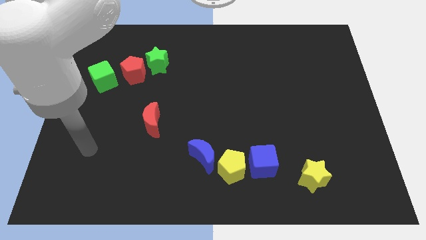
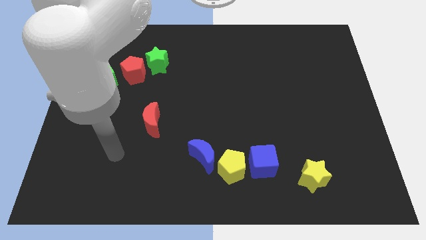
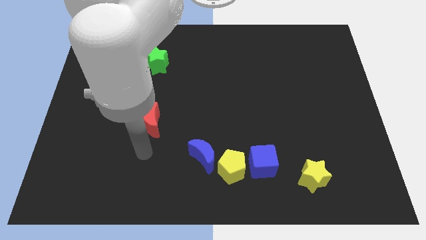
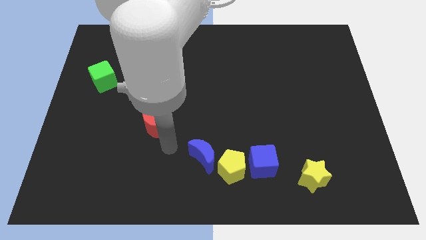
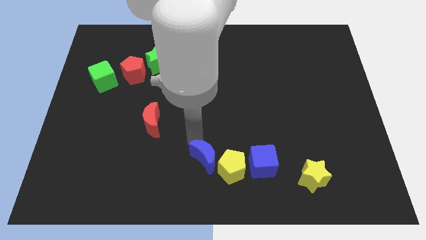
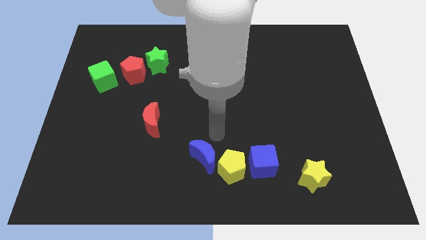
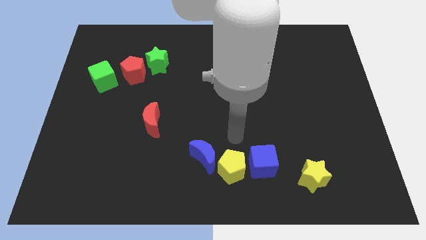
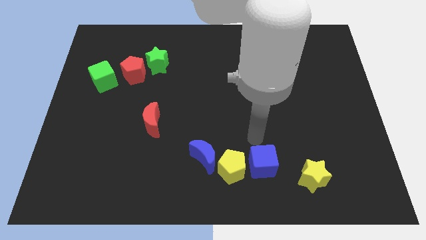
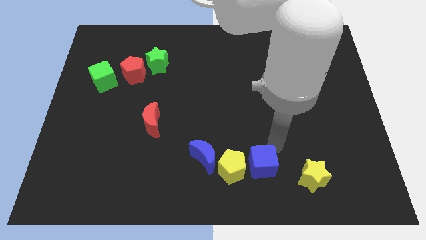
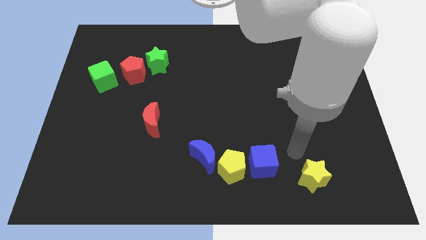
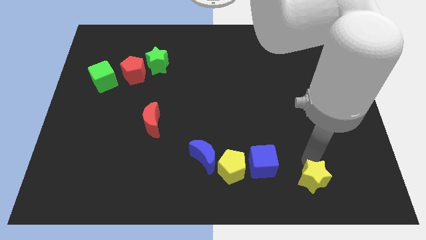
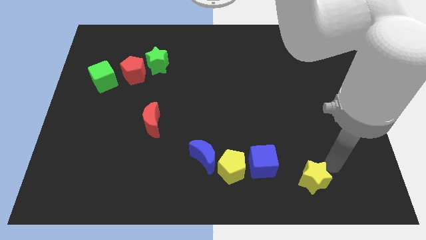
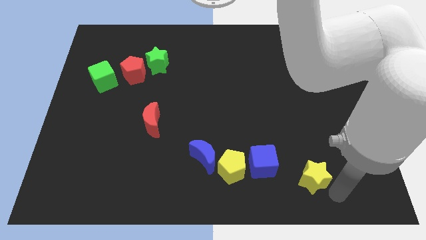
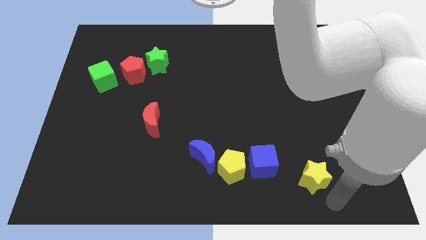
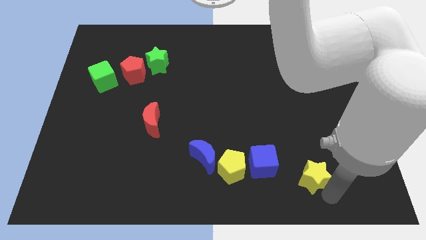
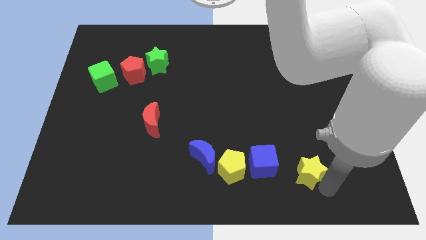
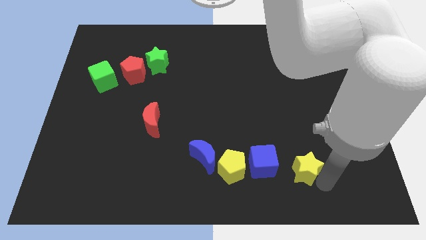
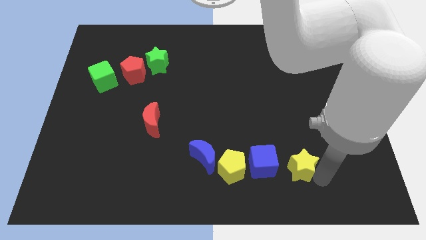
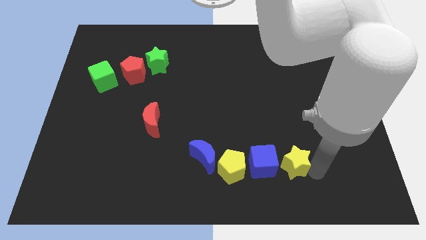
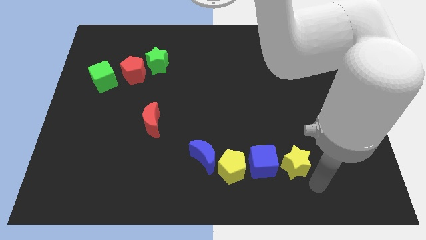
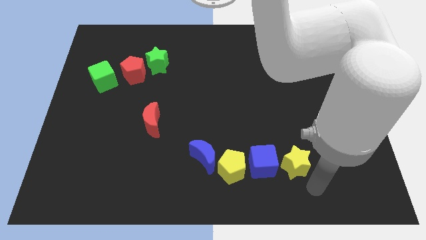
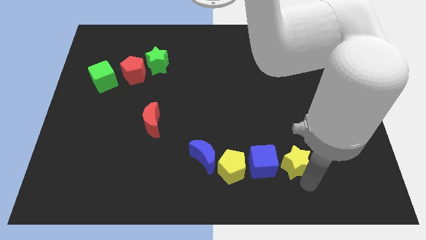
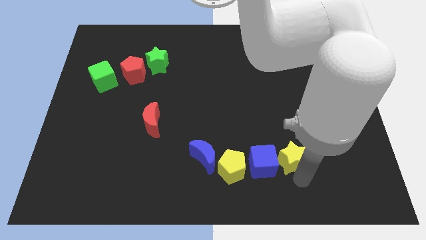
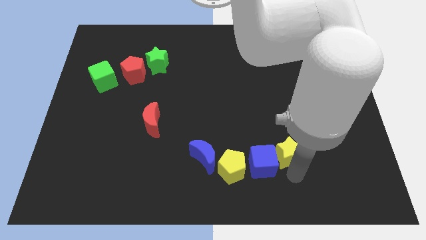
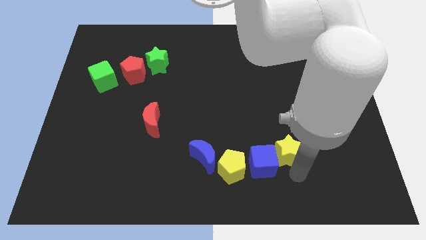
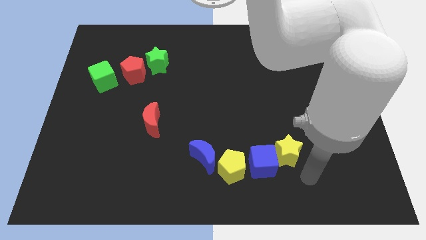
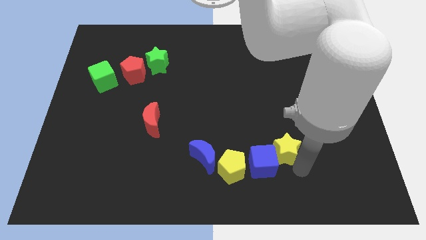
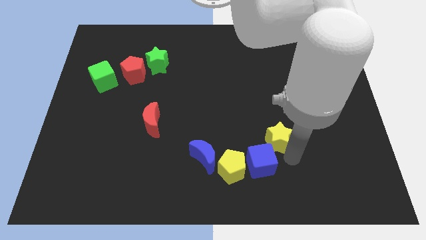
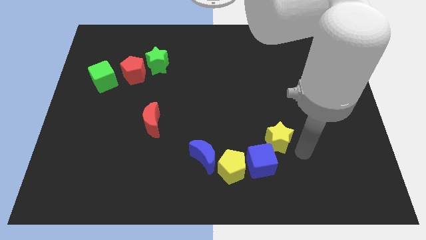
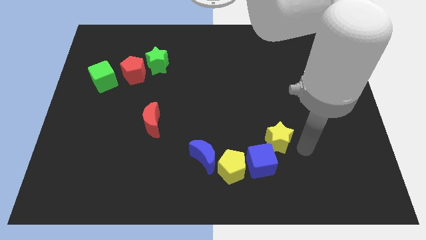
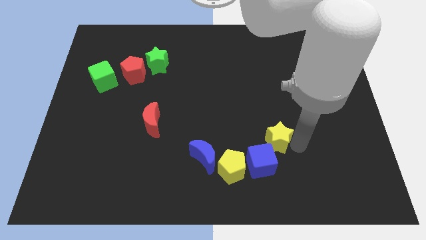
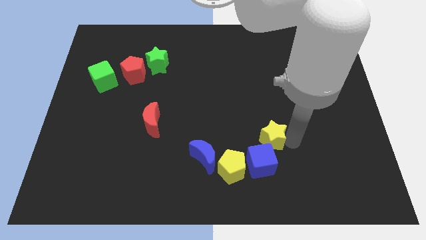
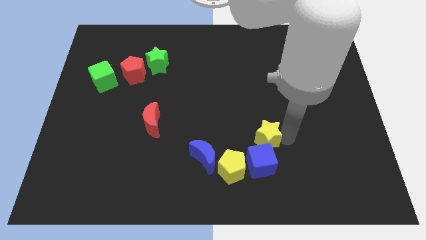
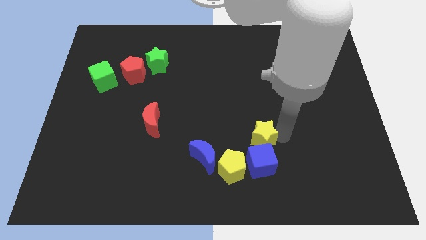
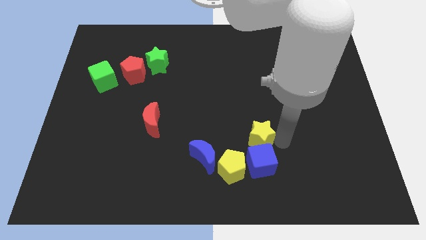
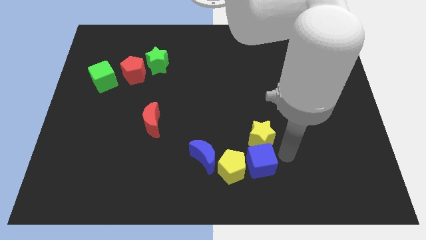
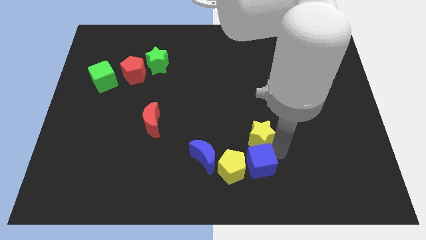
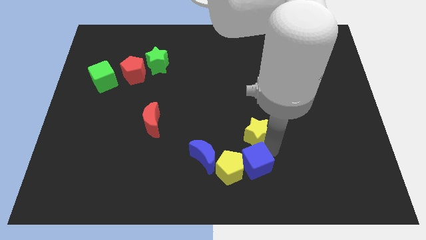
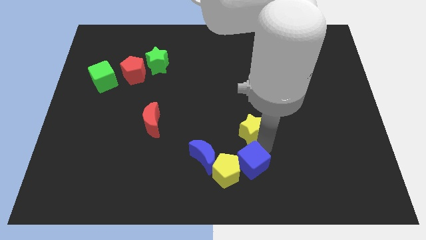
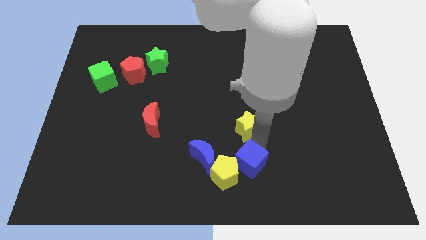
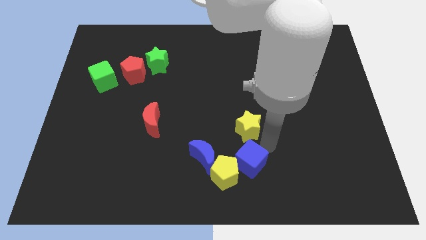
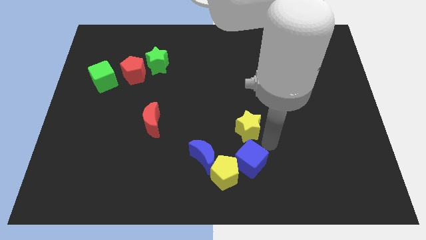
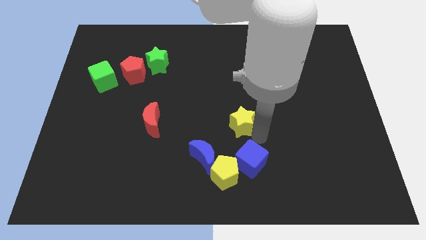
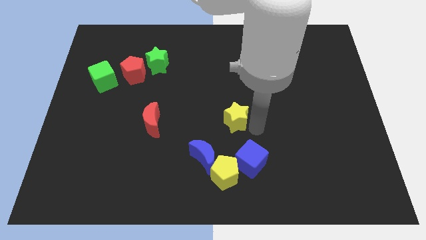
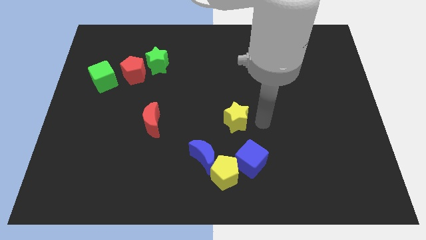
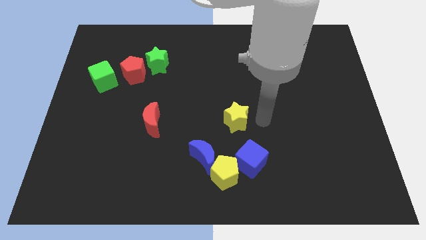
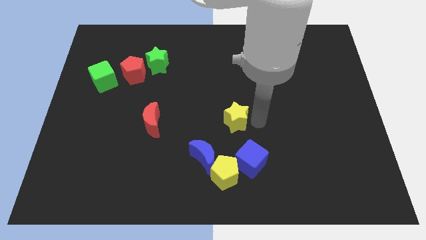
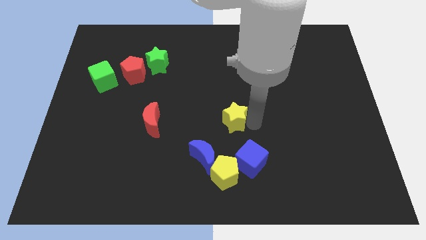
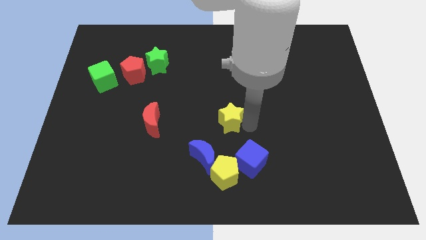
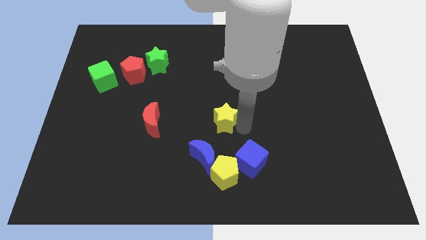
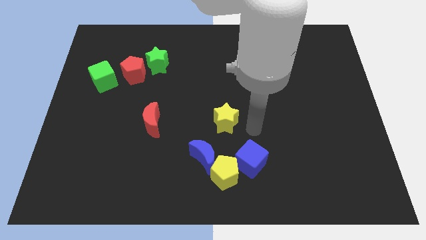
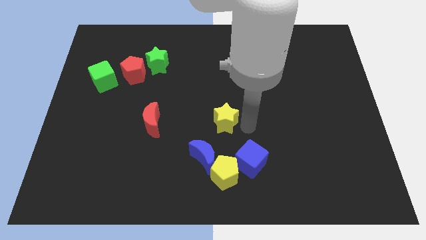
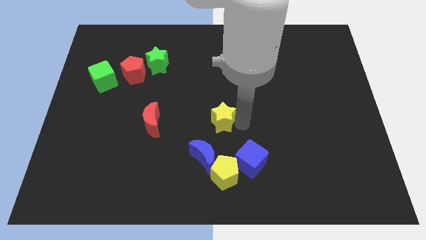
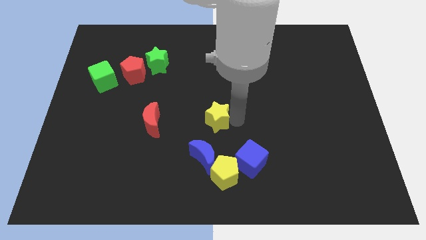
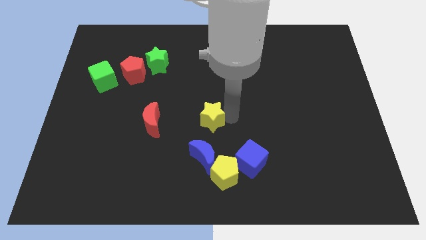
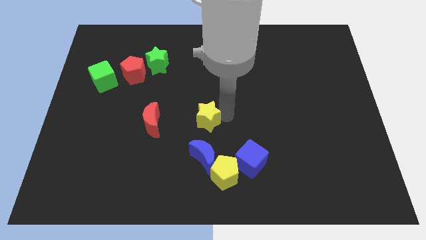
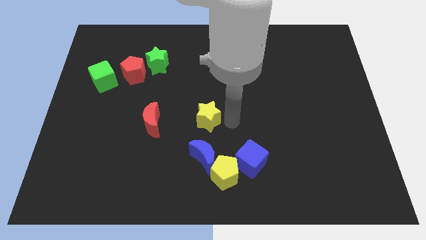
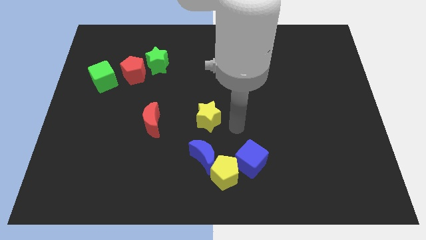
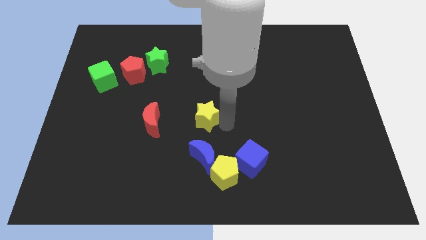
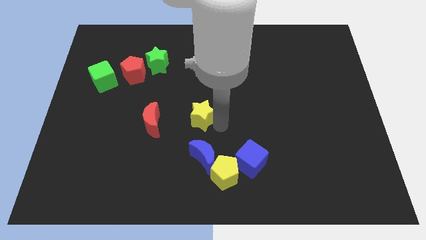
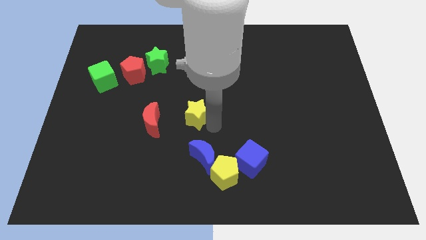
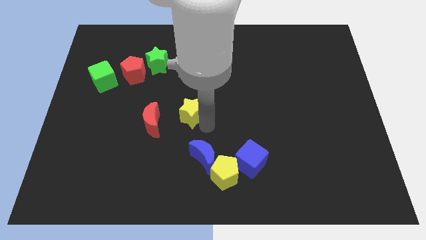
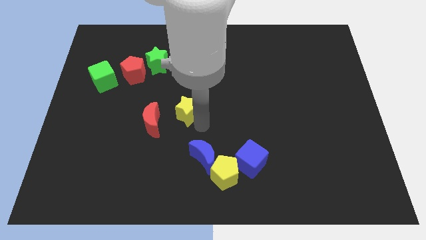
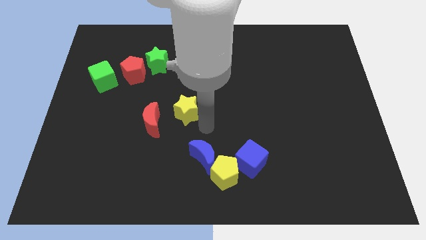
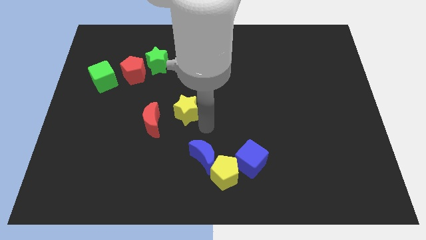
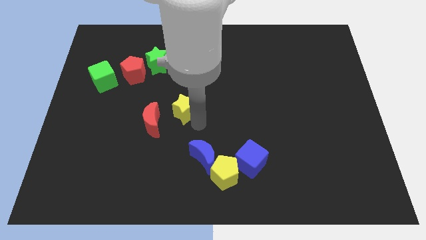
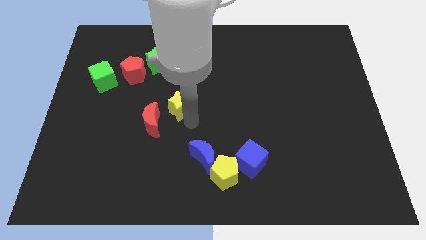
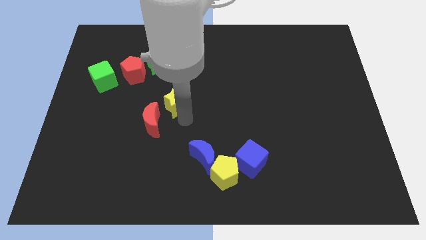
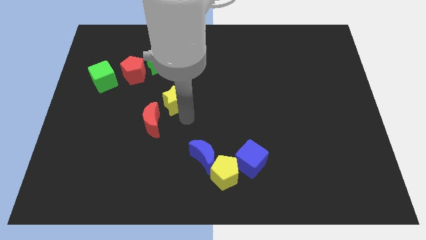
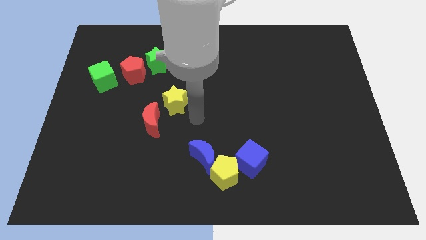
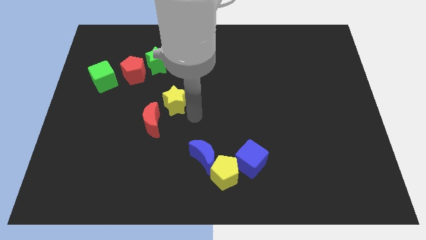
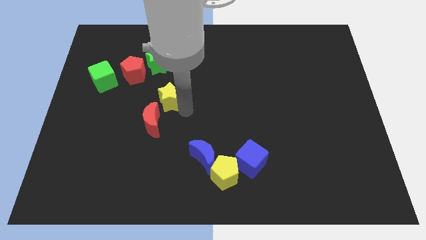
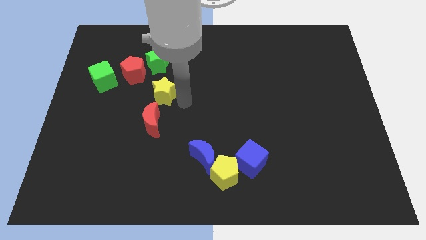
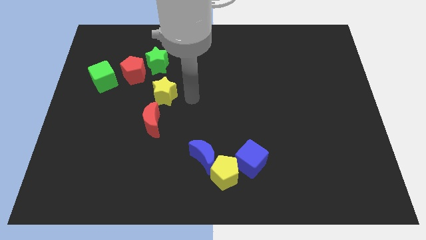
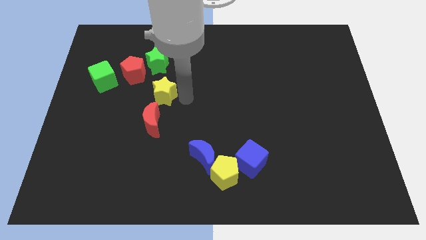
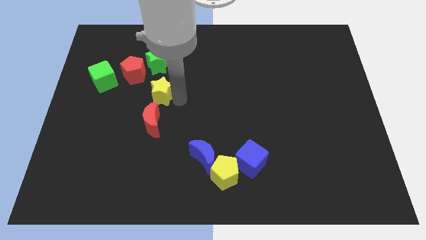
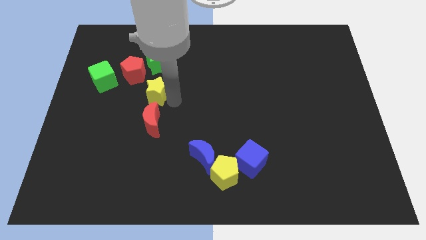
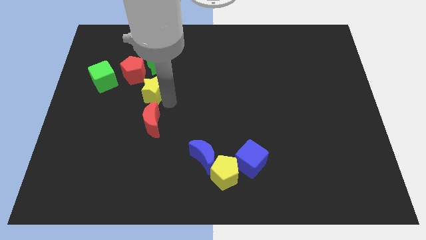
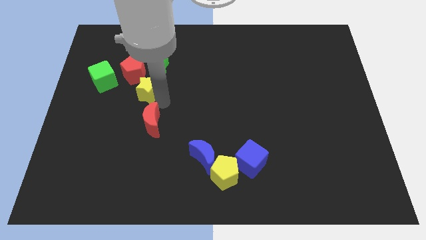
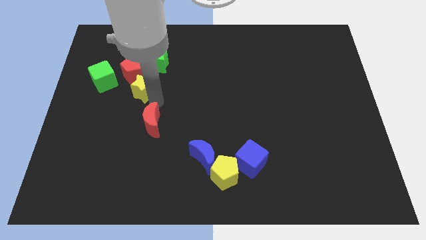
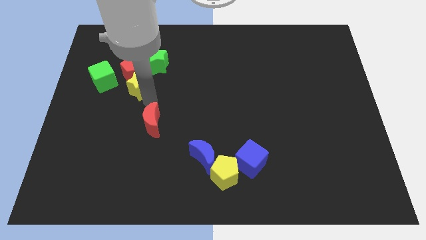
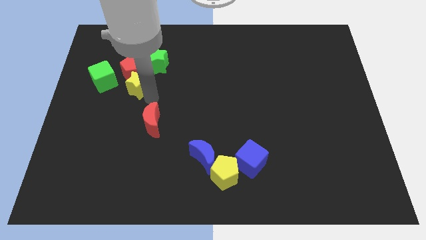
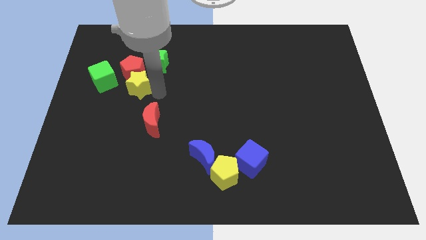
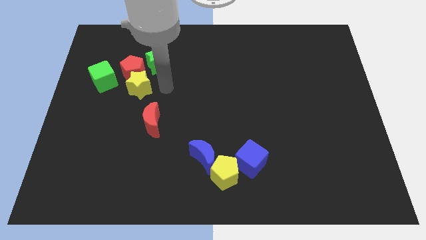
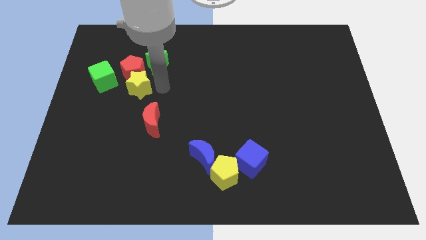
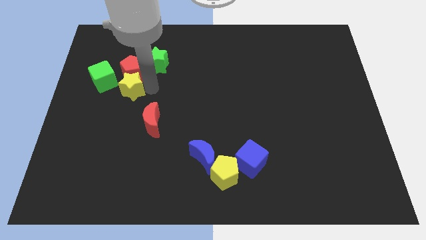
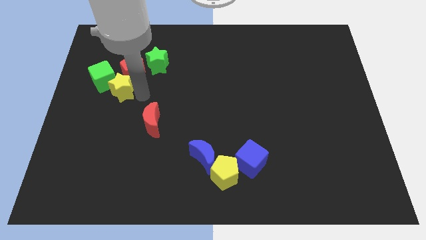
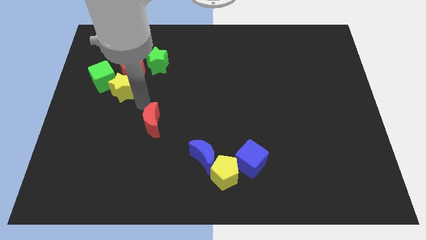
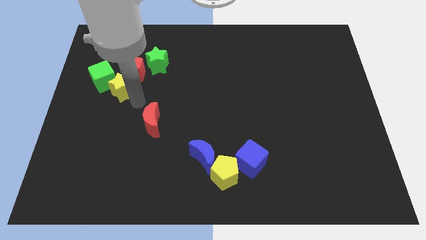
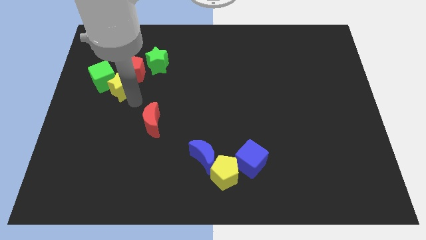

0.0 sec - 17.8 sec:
put the yellow star to the green cube
